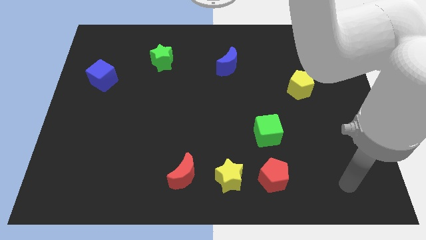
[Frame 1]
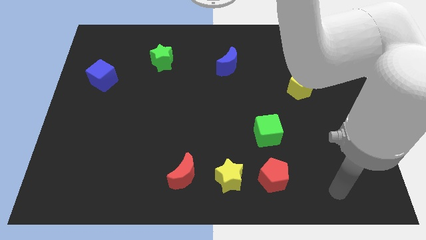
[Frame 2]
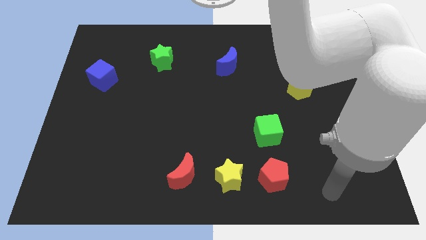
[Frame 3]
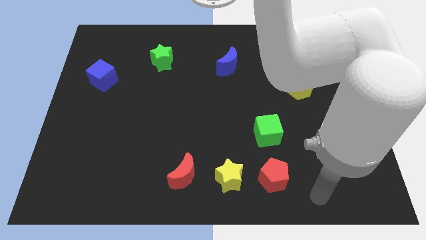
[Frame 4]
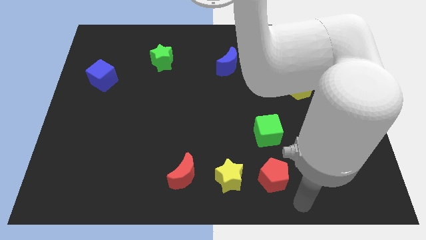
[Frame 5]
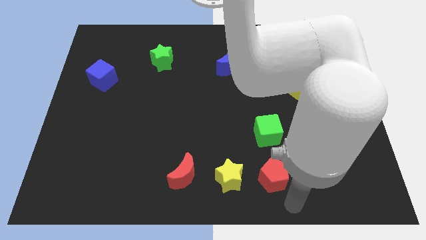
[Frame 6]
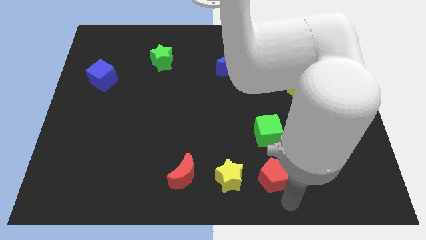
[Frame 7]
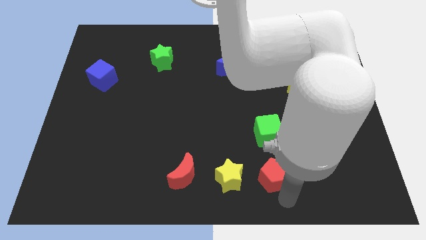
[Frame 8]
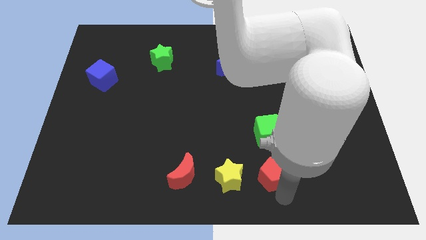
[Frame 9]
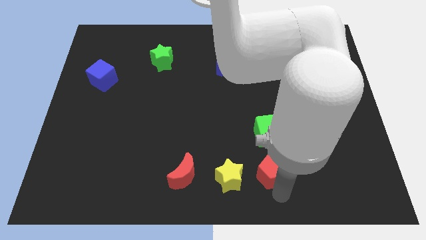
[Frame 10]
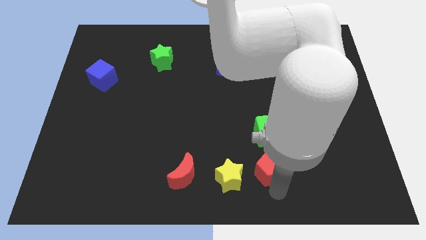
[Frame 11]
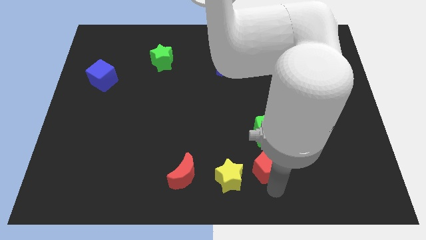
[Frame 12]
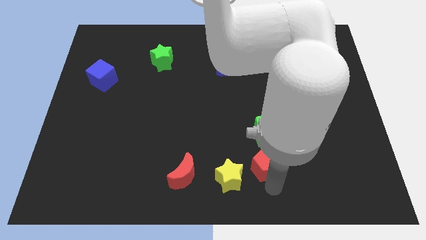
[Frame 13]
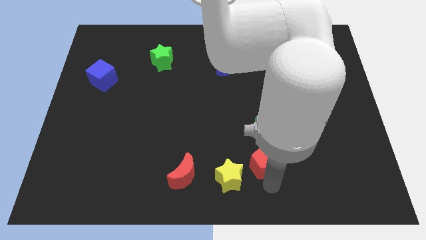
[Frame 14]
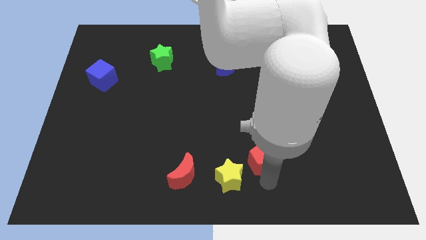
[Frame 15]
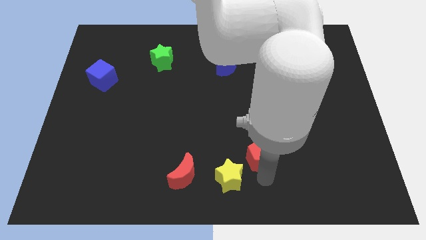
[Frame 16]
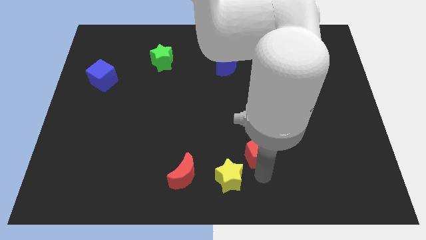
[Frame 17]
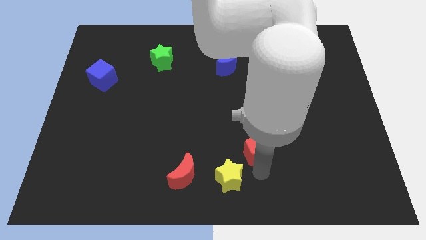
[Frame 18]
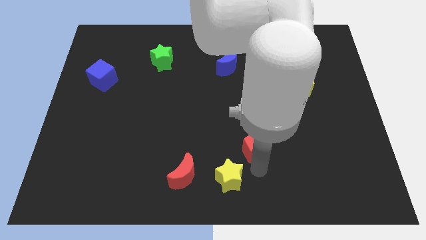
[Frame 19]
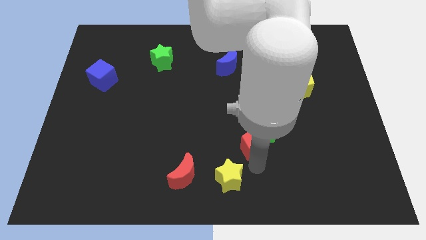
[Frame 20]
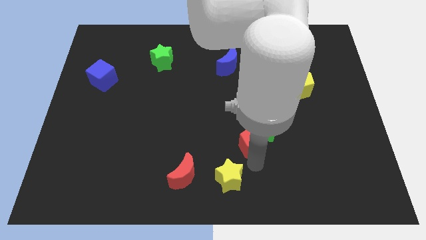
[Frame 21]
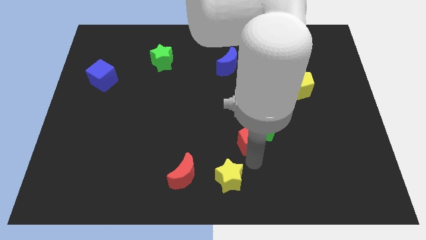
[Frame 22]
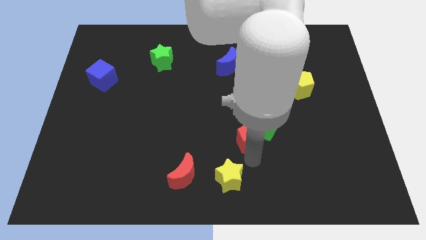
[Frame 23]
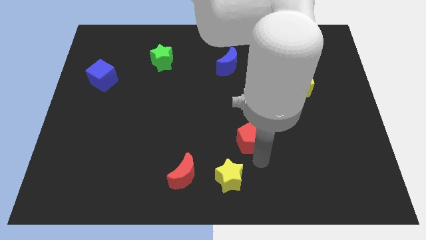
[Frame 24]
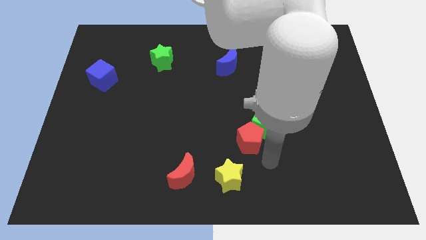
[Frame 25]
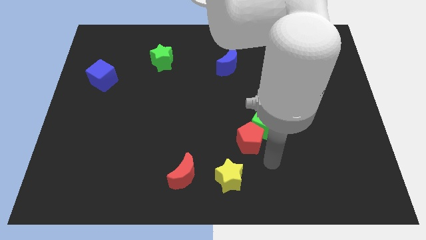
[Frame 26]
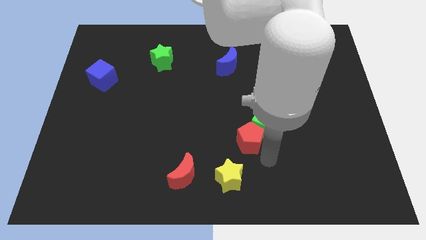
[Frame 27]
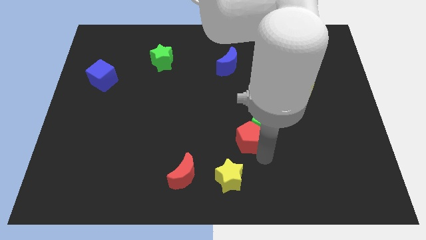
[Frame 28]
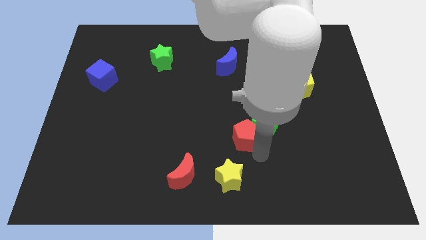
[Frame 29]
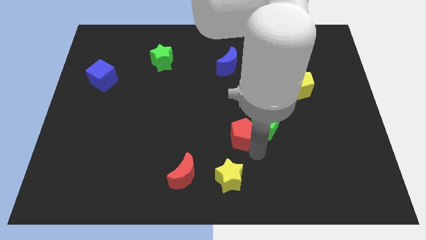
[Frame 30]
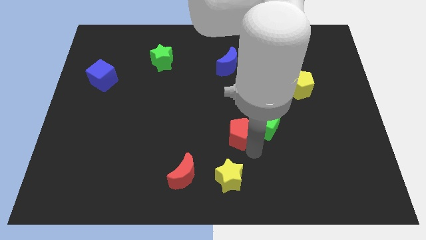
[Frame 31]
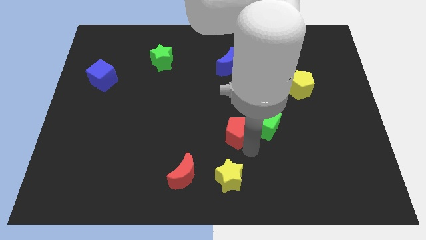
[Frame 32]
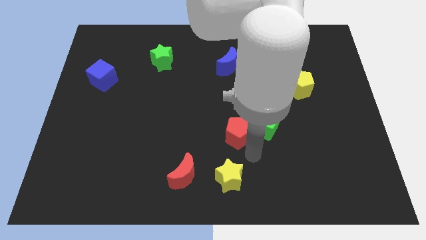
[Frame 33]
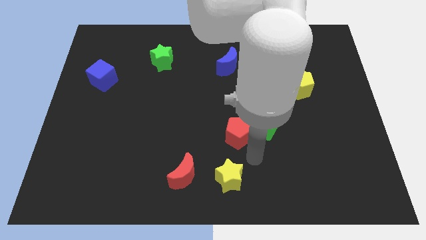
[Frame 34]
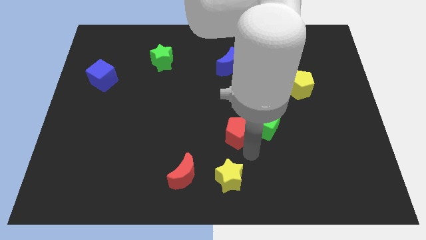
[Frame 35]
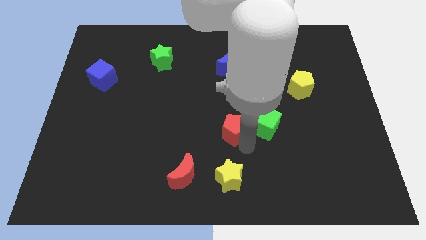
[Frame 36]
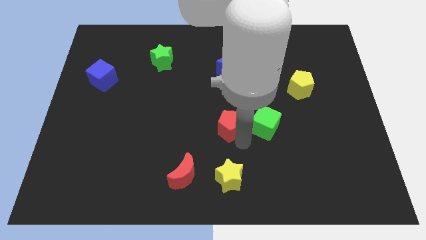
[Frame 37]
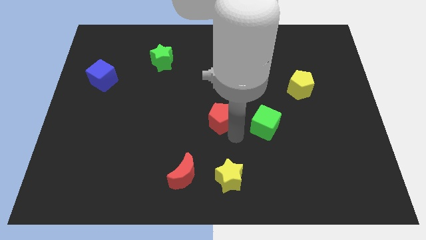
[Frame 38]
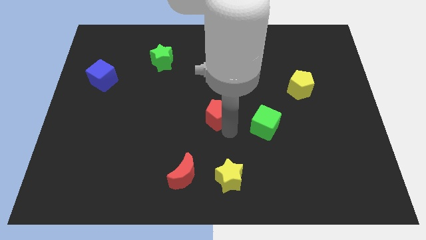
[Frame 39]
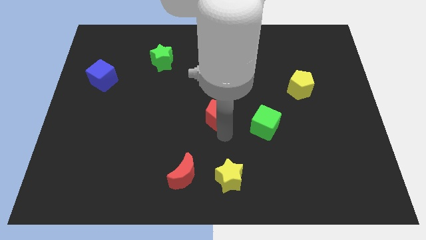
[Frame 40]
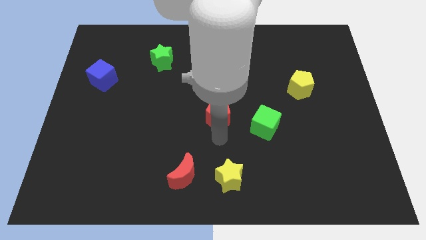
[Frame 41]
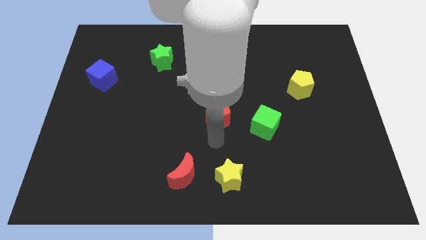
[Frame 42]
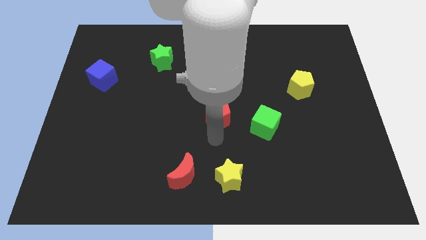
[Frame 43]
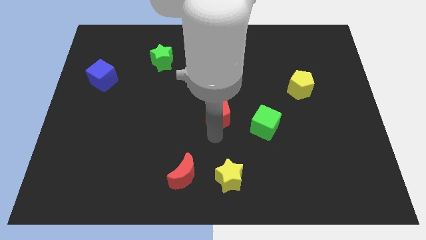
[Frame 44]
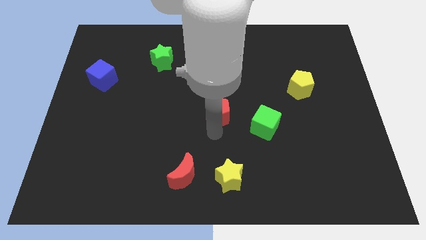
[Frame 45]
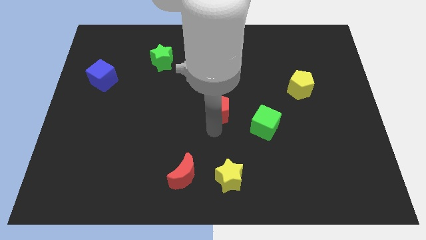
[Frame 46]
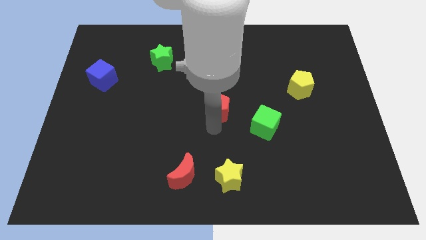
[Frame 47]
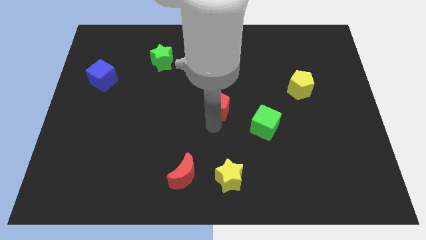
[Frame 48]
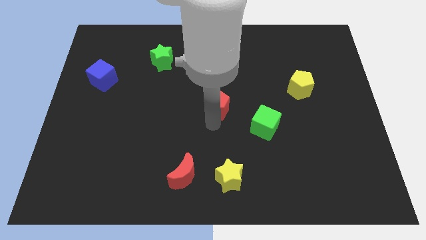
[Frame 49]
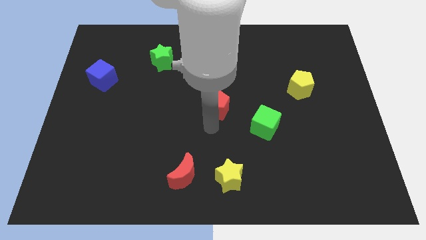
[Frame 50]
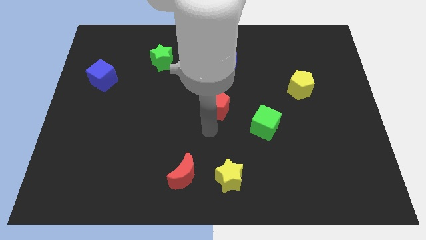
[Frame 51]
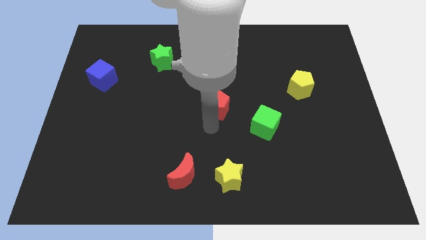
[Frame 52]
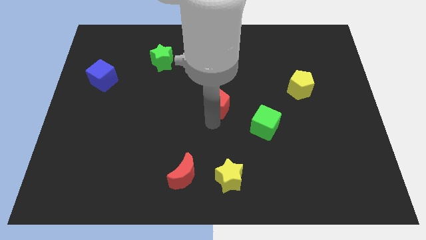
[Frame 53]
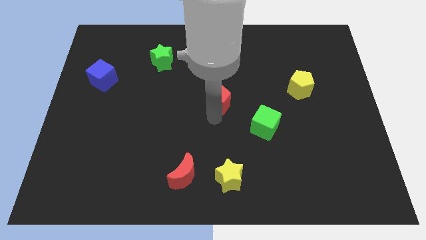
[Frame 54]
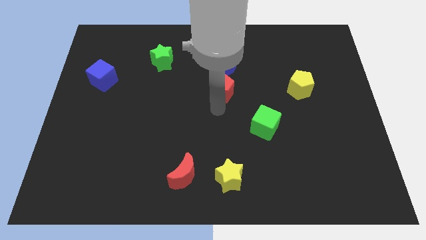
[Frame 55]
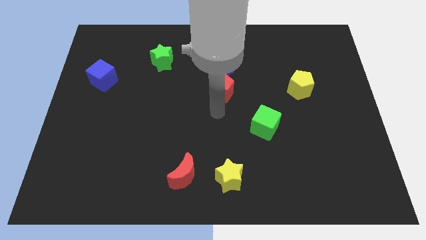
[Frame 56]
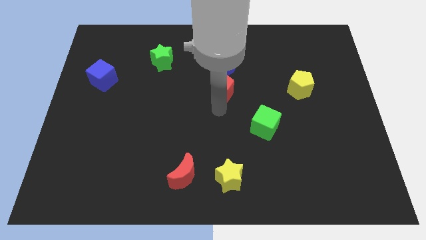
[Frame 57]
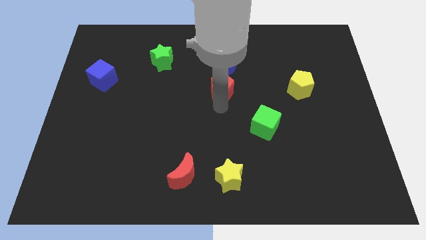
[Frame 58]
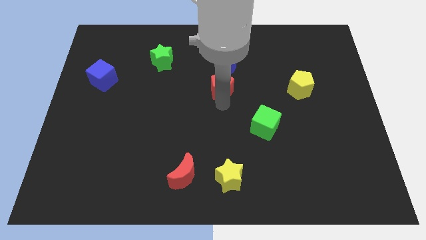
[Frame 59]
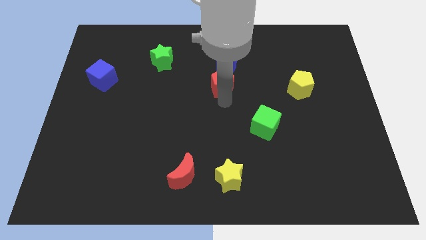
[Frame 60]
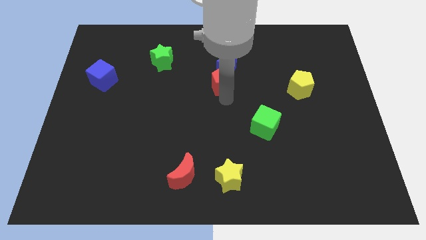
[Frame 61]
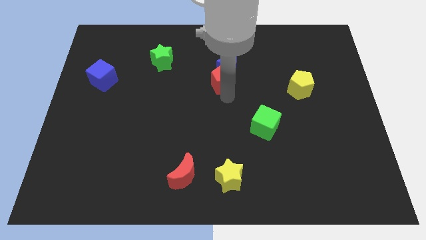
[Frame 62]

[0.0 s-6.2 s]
slide the red pentagon close to the blue moon

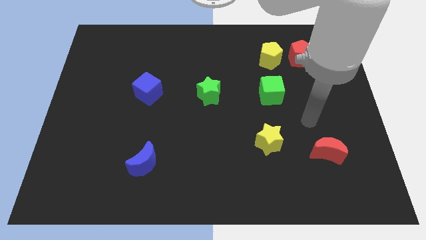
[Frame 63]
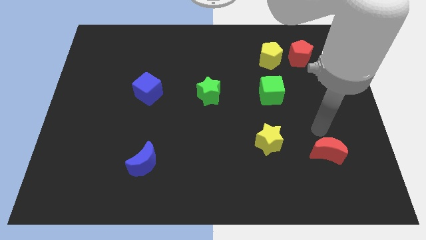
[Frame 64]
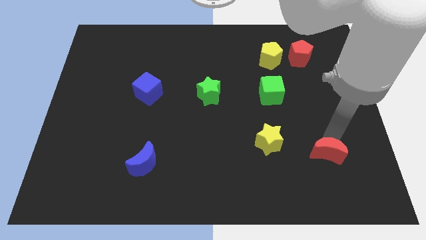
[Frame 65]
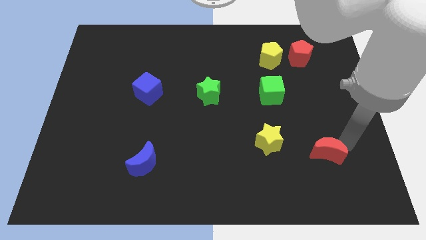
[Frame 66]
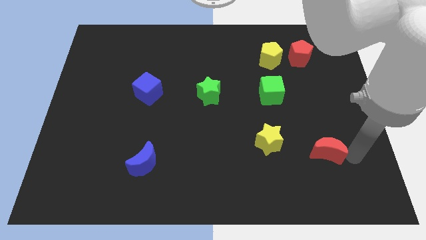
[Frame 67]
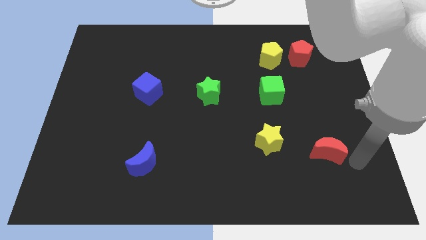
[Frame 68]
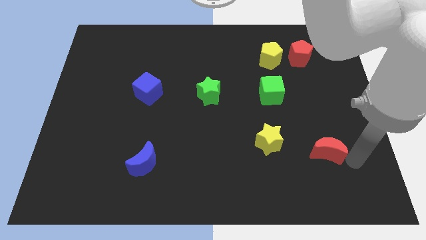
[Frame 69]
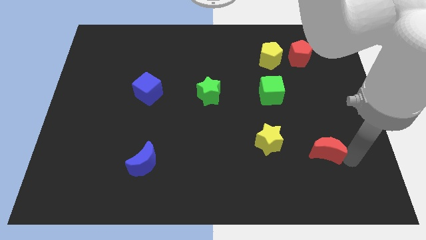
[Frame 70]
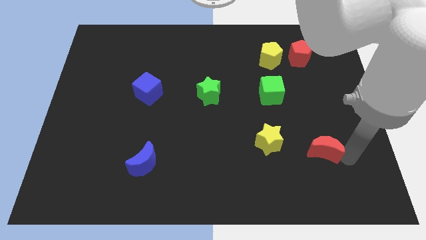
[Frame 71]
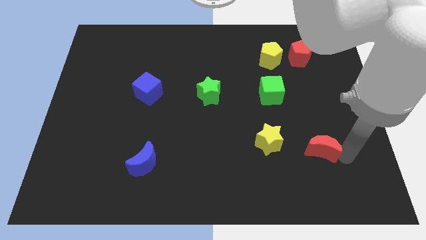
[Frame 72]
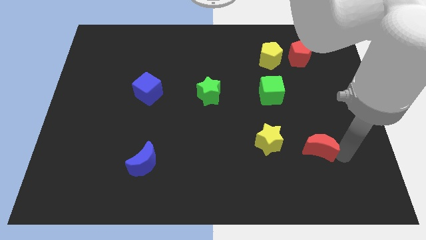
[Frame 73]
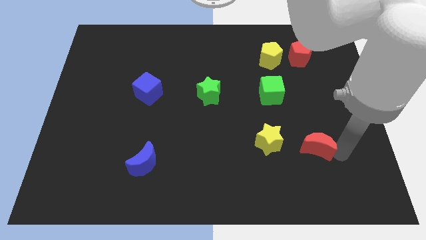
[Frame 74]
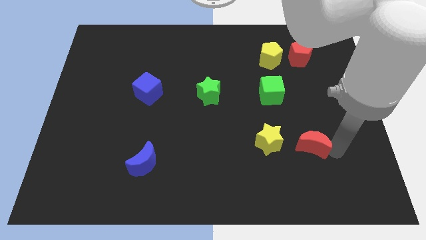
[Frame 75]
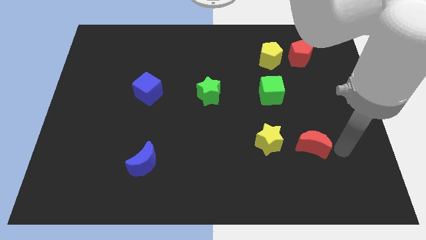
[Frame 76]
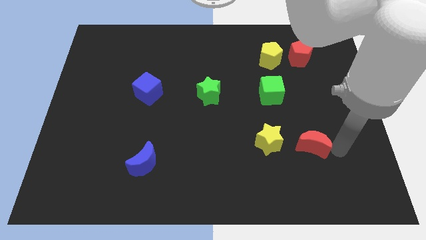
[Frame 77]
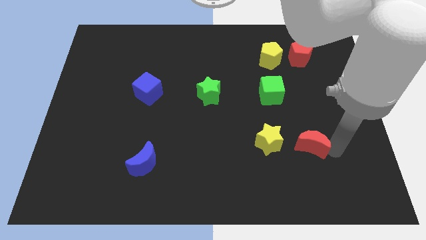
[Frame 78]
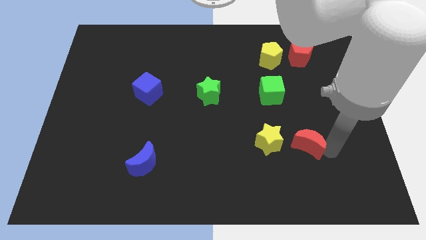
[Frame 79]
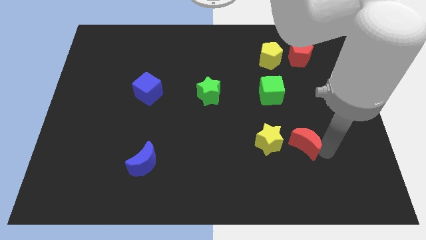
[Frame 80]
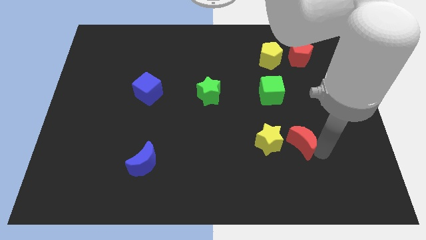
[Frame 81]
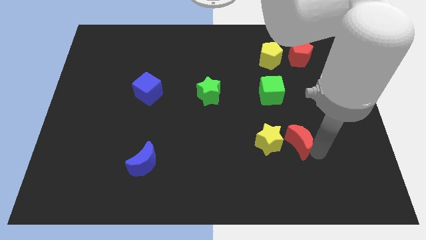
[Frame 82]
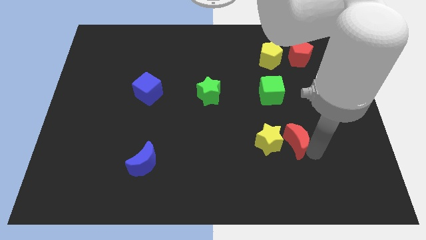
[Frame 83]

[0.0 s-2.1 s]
push the red moon next to the yellow star
